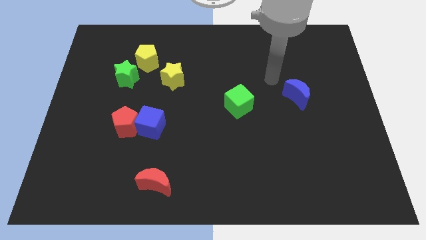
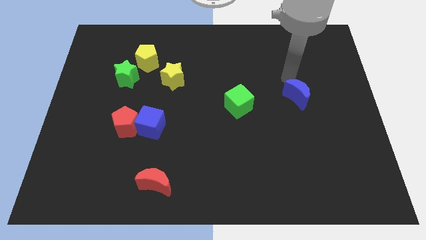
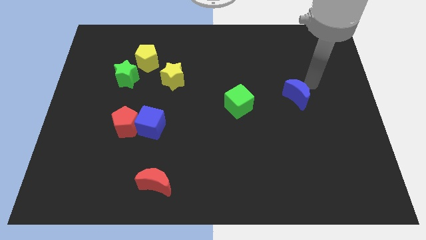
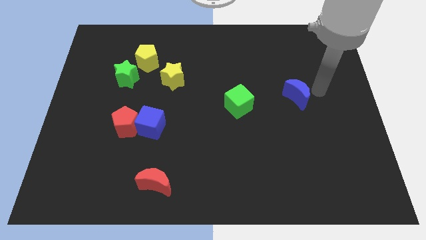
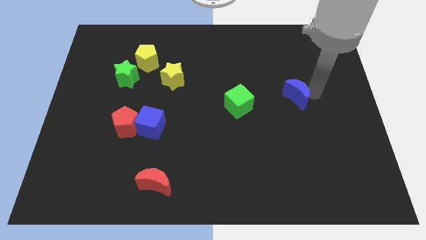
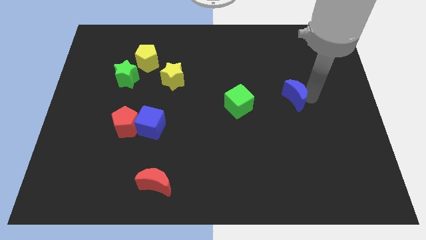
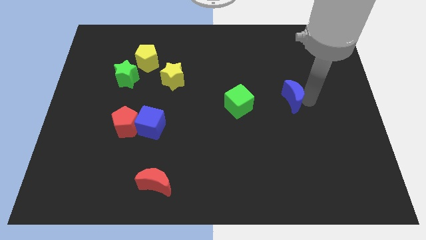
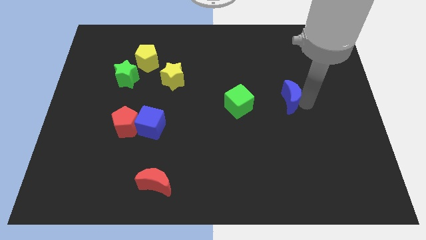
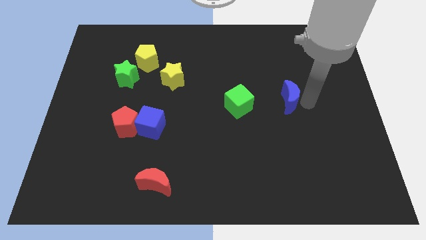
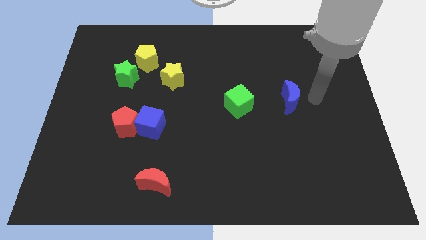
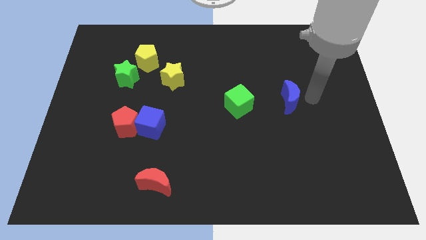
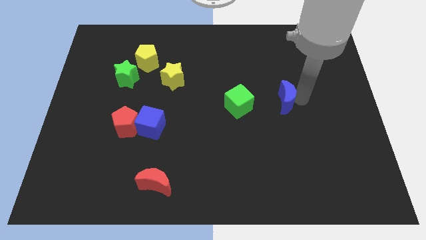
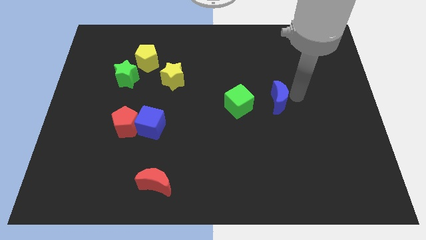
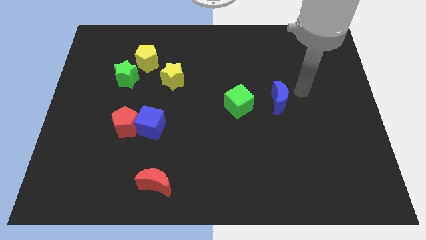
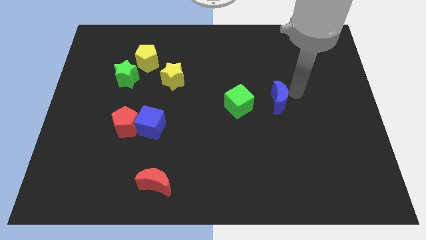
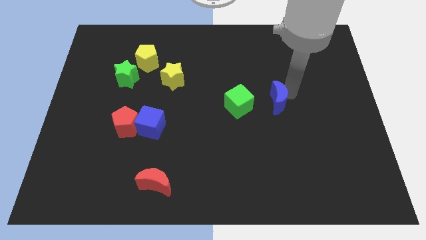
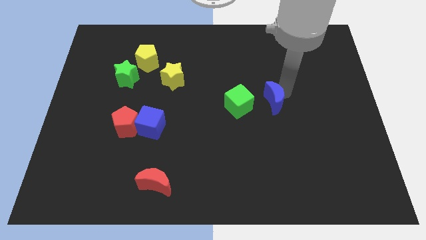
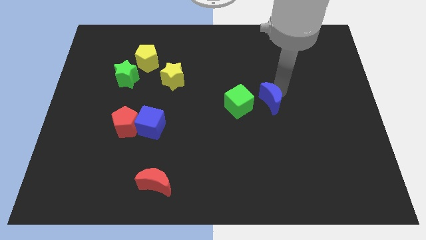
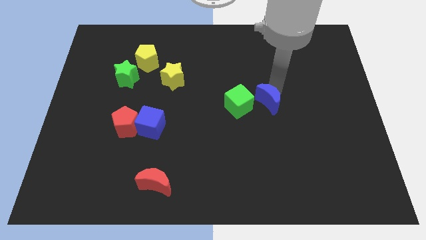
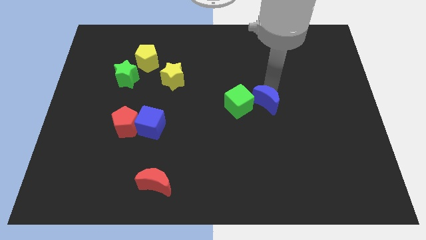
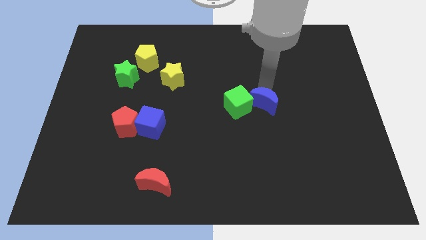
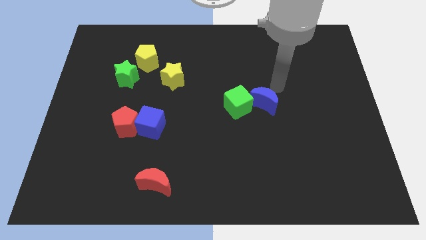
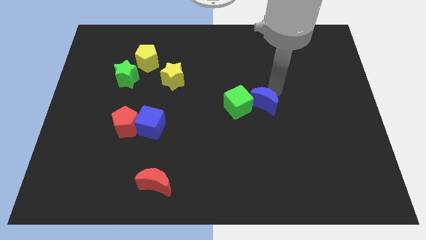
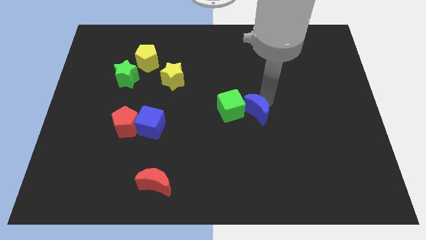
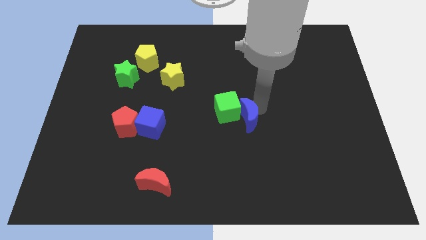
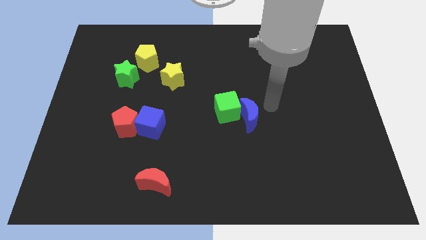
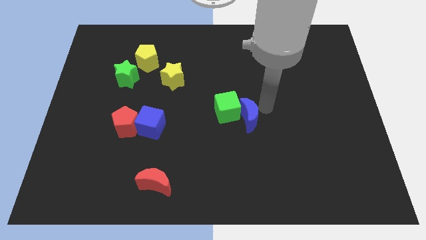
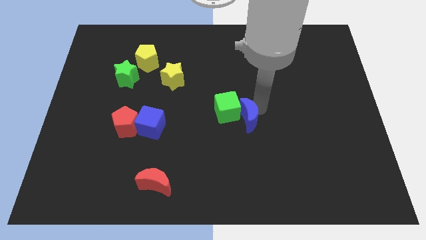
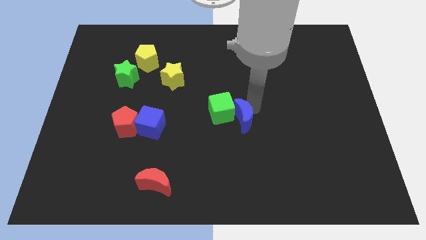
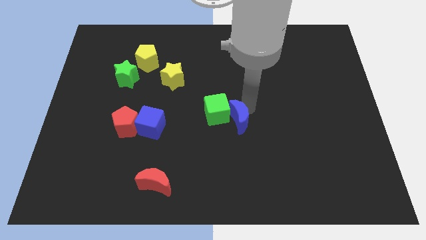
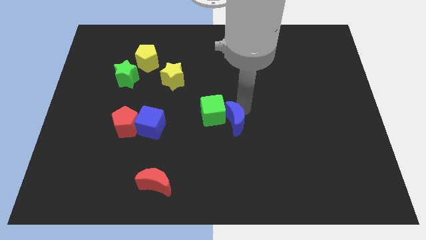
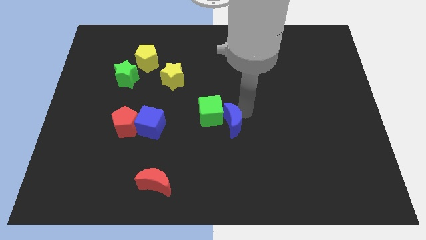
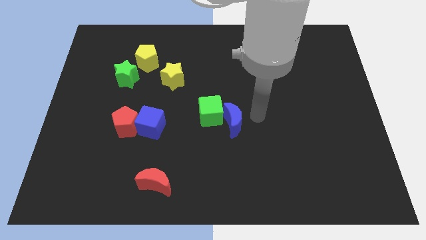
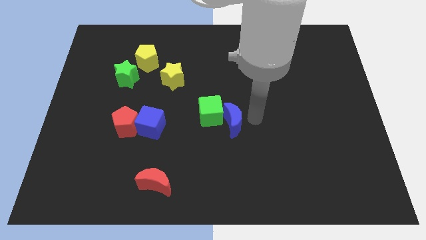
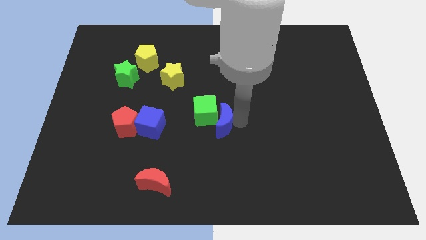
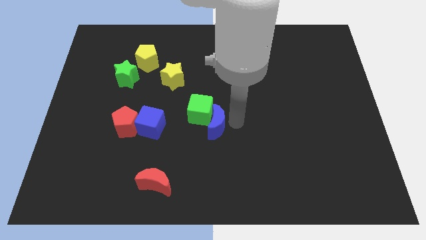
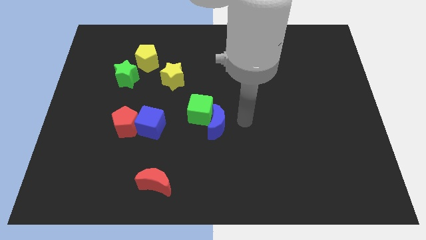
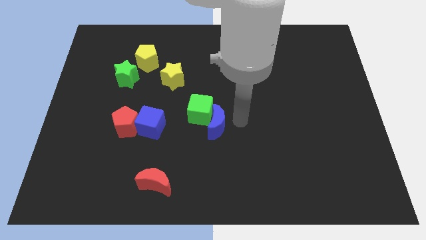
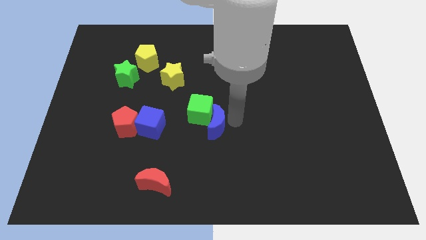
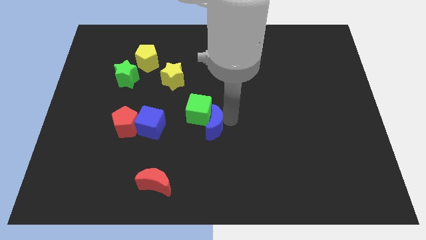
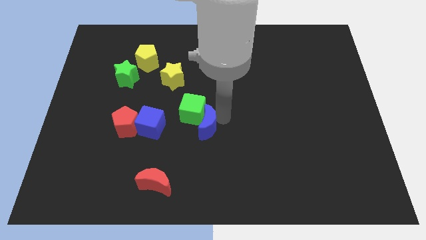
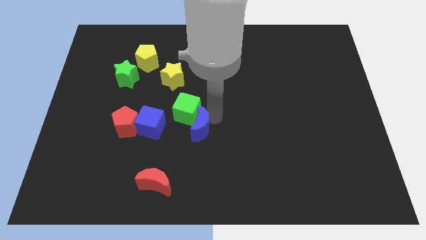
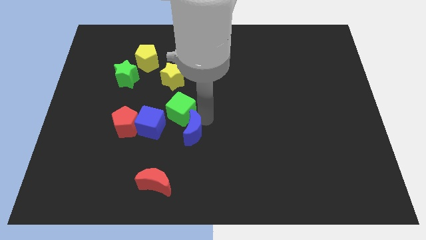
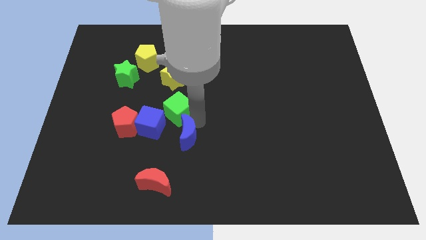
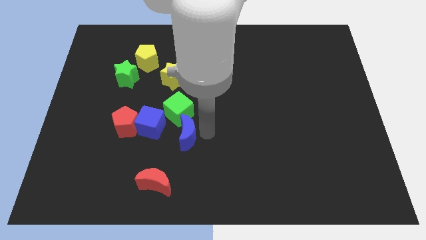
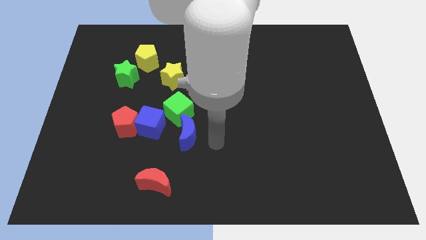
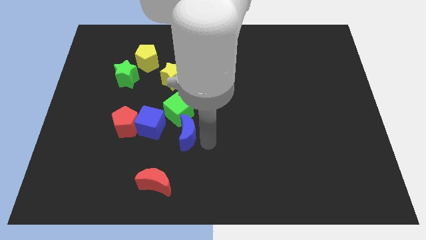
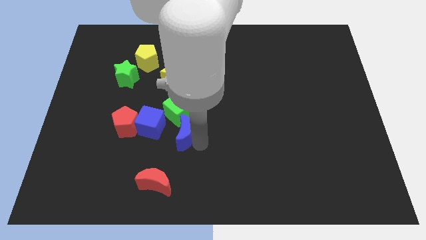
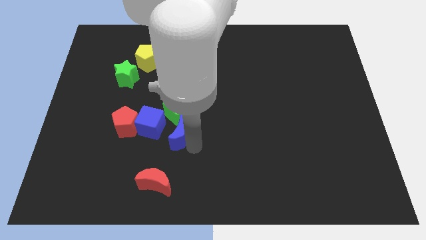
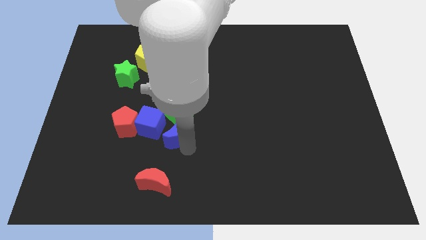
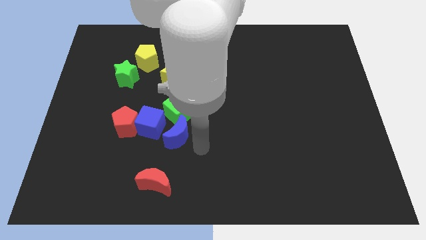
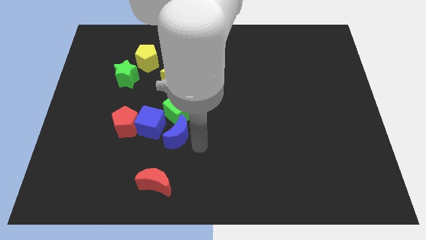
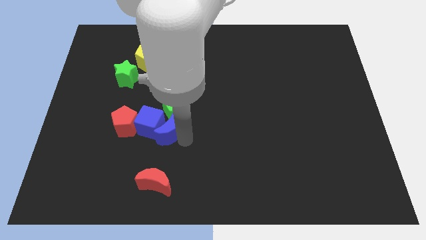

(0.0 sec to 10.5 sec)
push the blue moon close to the blue cube
